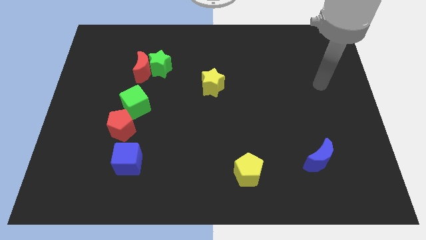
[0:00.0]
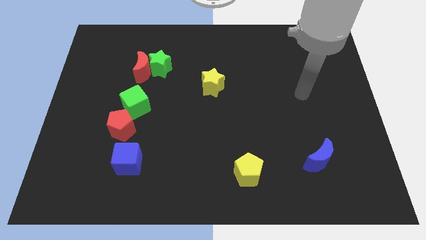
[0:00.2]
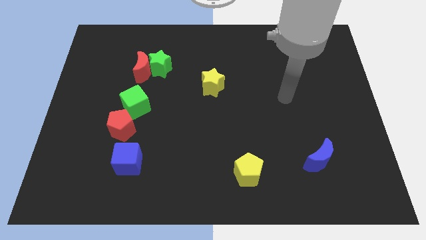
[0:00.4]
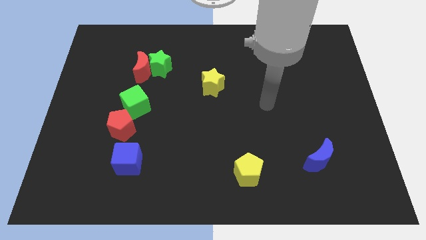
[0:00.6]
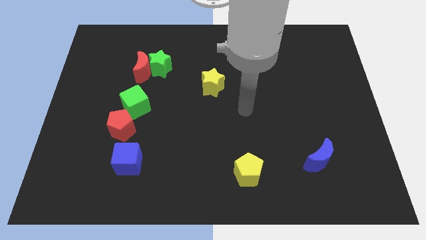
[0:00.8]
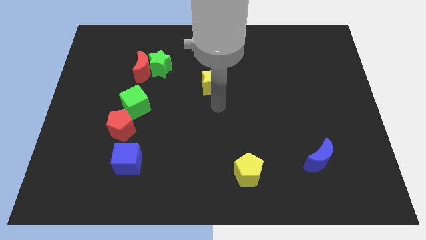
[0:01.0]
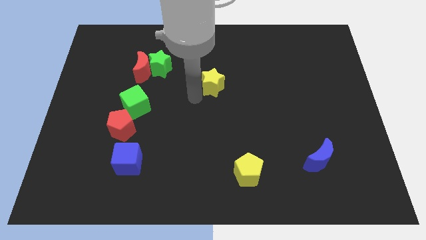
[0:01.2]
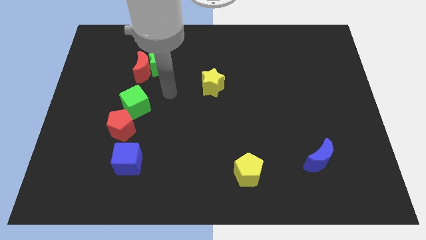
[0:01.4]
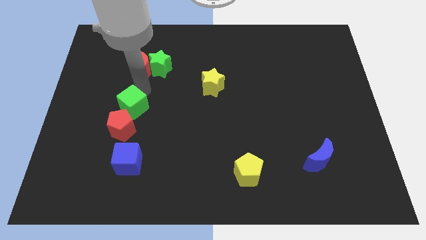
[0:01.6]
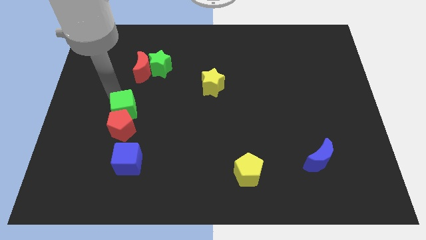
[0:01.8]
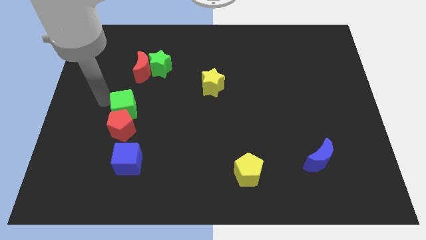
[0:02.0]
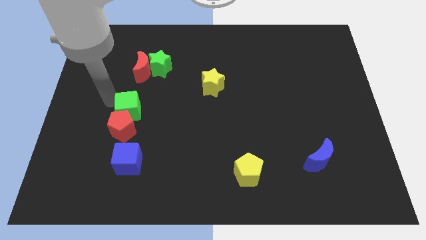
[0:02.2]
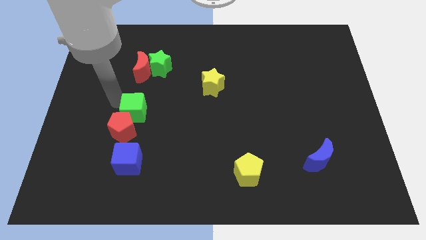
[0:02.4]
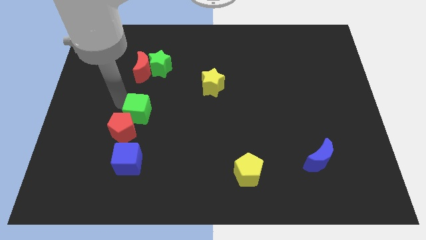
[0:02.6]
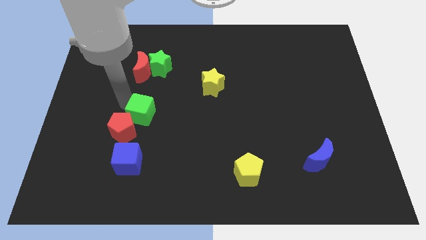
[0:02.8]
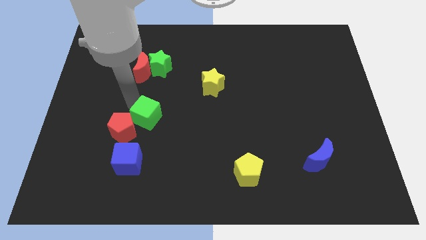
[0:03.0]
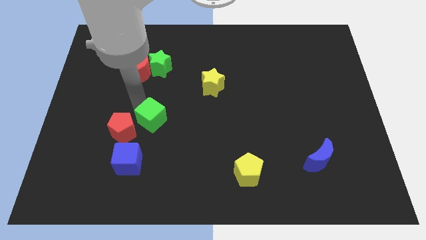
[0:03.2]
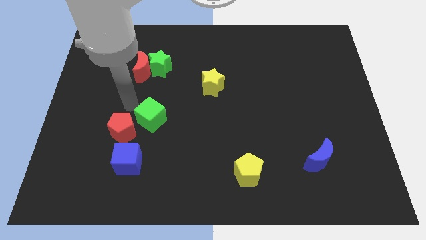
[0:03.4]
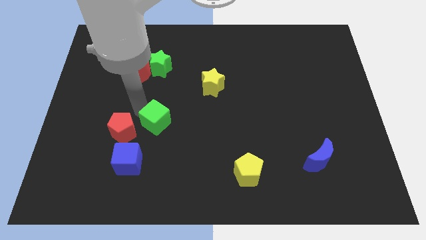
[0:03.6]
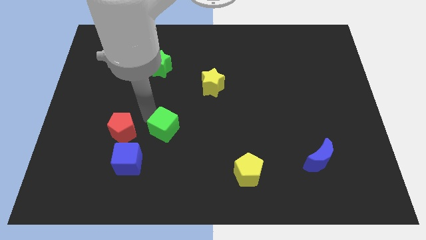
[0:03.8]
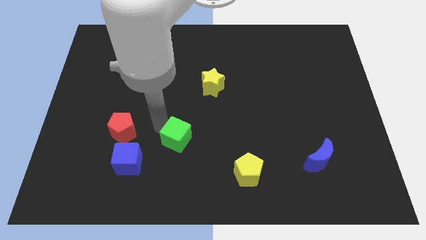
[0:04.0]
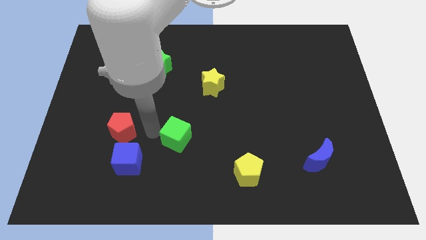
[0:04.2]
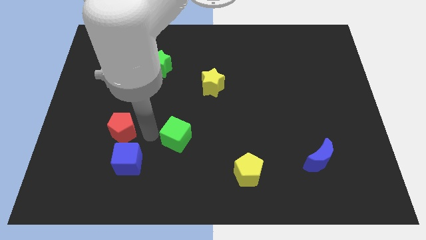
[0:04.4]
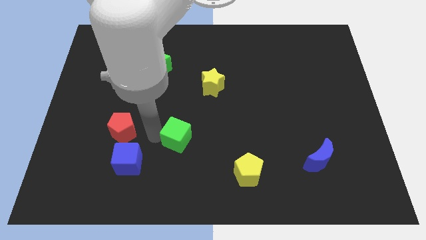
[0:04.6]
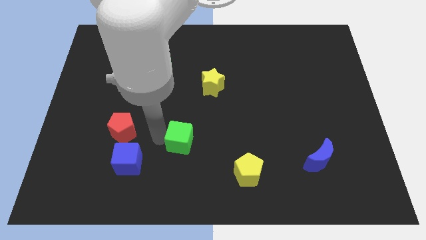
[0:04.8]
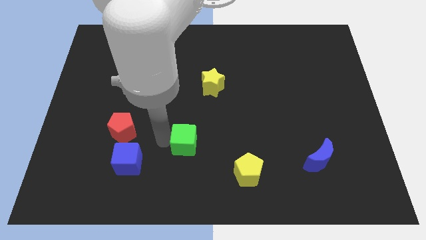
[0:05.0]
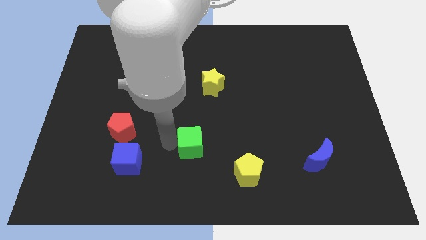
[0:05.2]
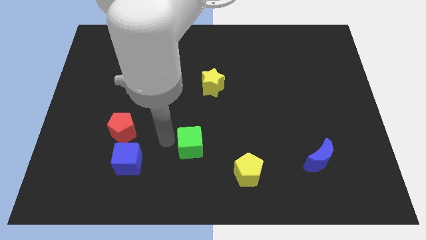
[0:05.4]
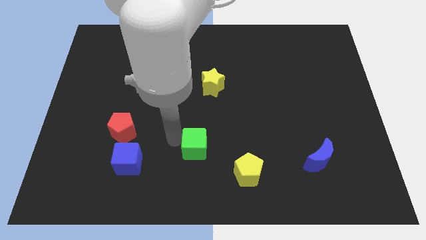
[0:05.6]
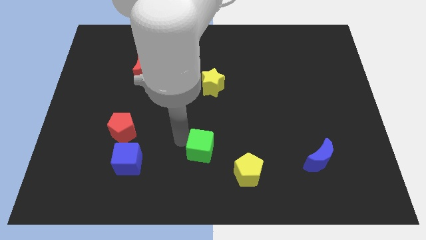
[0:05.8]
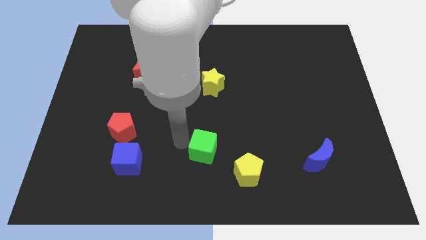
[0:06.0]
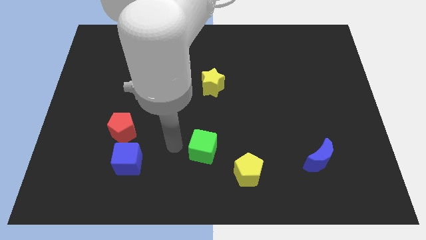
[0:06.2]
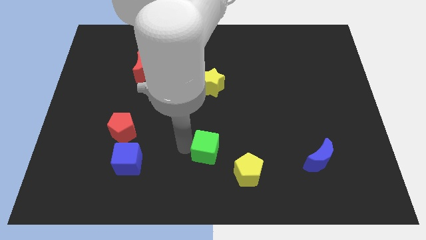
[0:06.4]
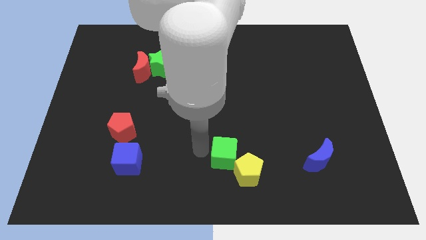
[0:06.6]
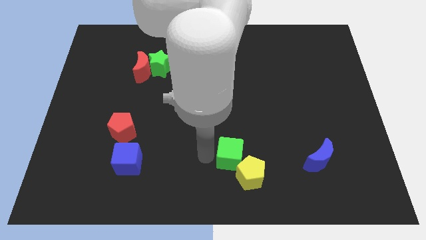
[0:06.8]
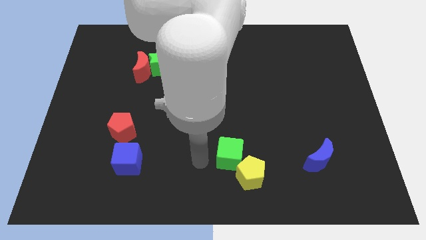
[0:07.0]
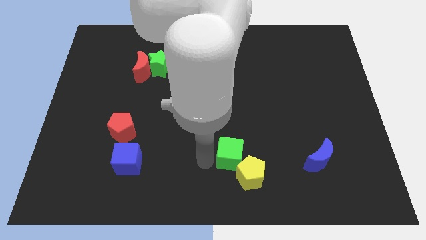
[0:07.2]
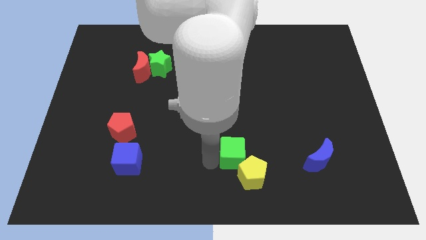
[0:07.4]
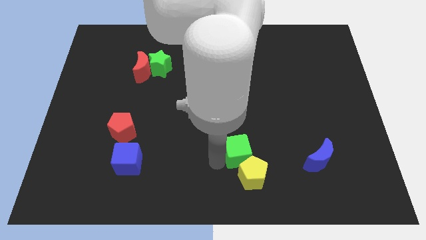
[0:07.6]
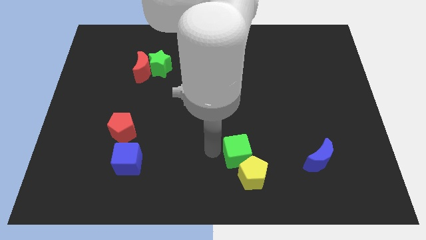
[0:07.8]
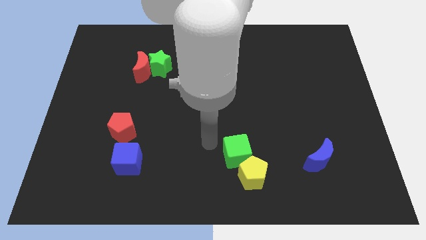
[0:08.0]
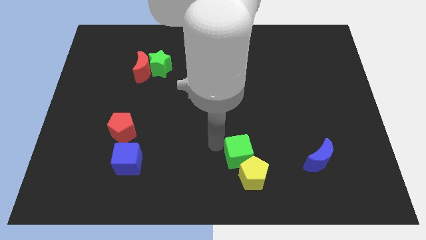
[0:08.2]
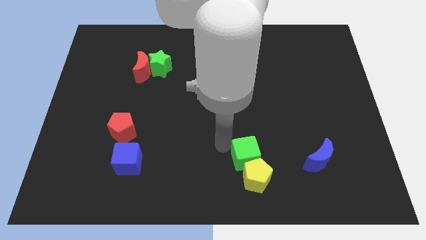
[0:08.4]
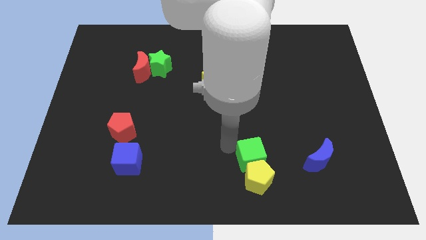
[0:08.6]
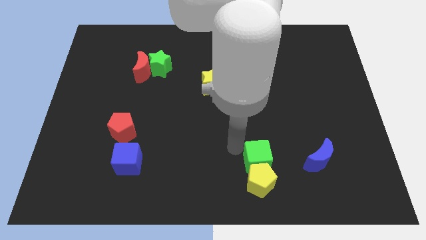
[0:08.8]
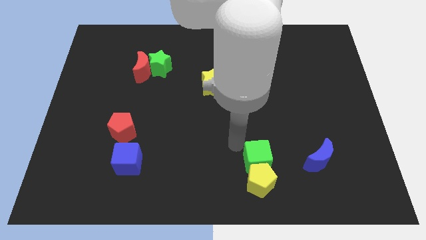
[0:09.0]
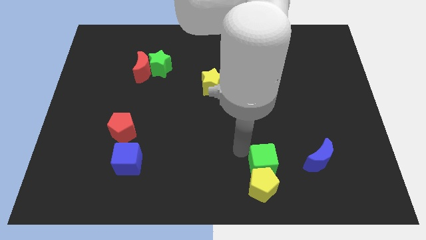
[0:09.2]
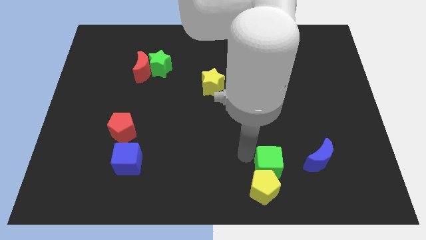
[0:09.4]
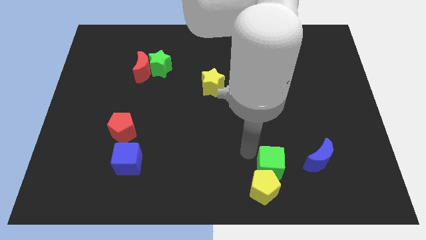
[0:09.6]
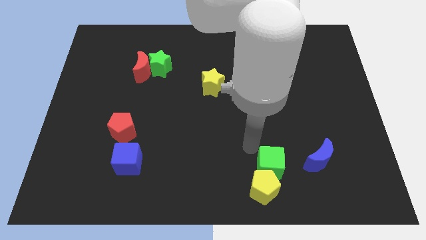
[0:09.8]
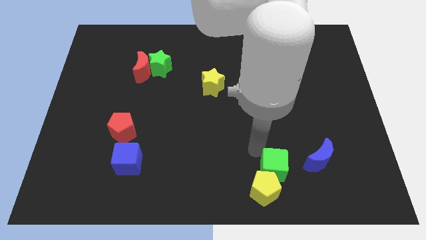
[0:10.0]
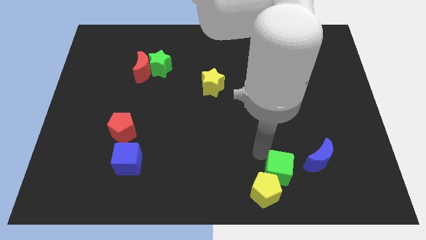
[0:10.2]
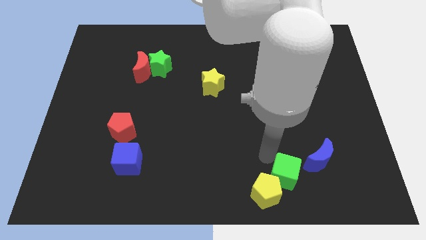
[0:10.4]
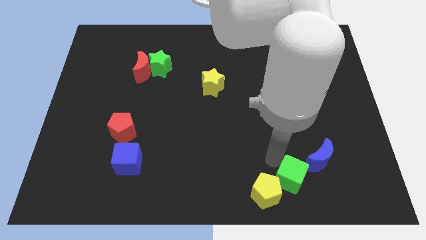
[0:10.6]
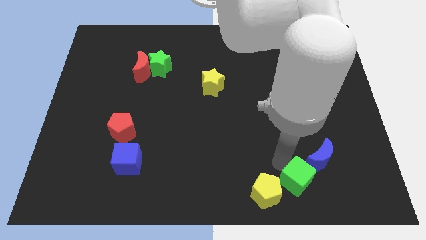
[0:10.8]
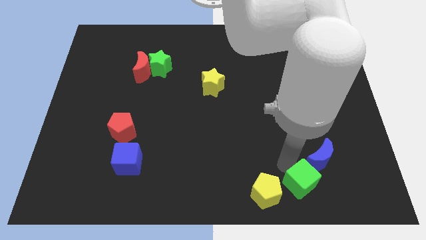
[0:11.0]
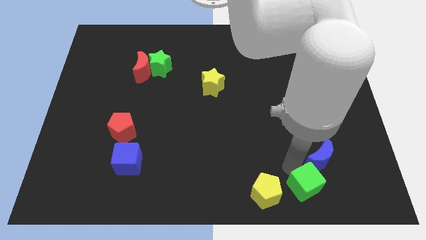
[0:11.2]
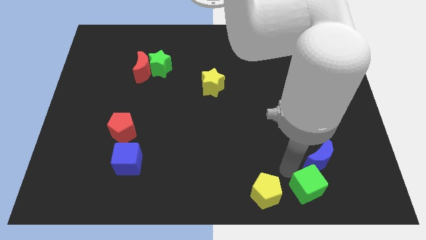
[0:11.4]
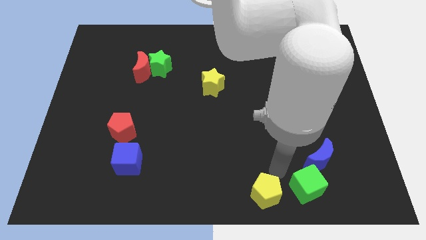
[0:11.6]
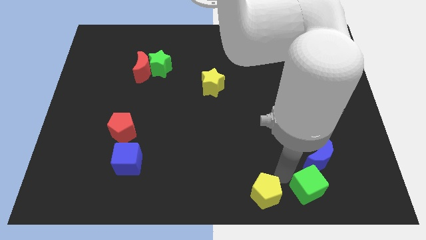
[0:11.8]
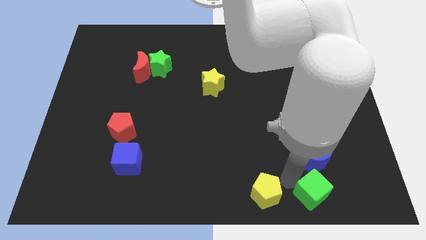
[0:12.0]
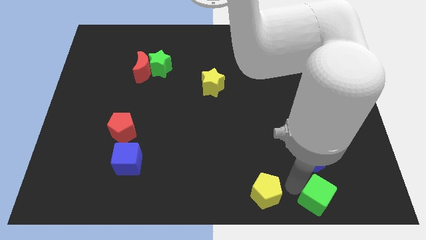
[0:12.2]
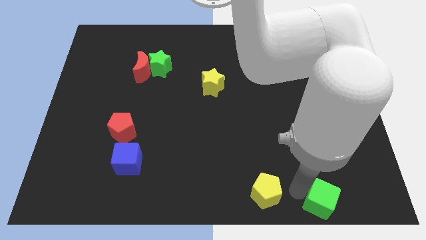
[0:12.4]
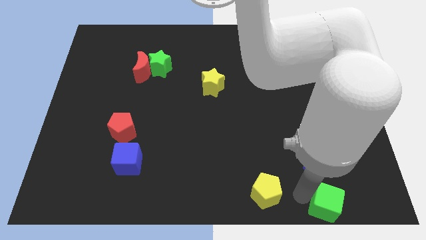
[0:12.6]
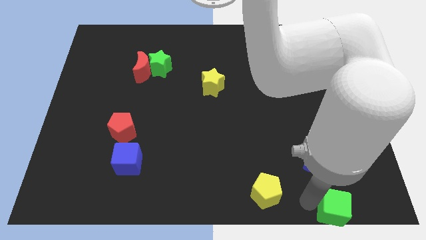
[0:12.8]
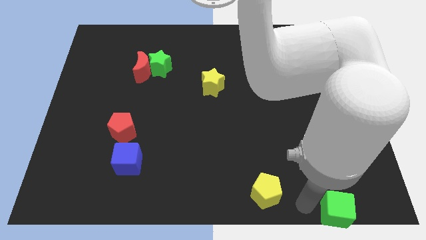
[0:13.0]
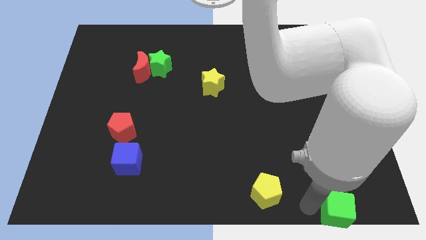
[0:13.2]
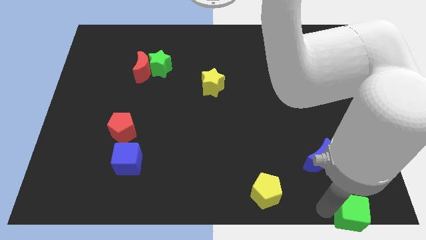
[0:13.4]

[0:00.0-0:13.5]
slide the green cube to the bottom right

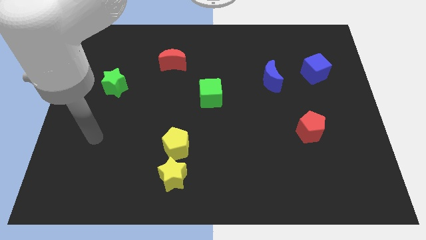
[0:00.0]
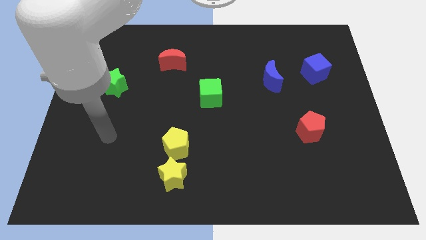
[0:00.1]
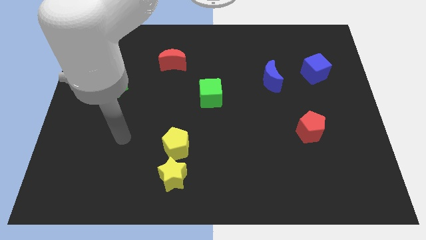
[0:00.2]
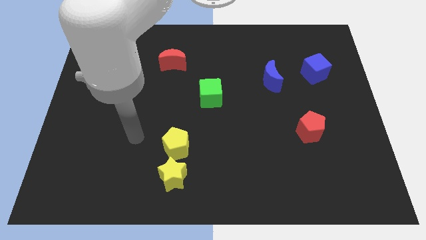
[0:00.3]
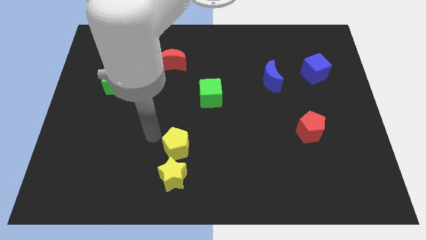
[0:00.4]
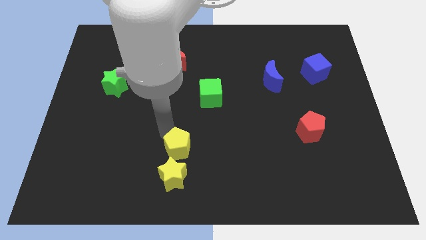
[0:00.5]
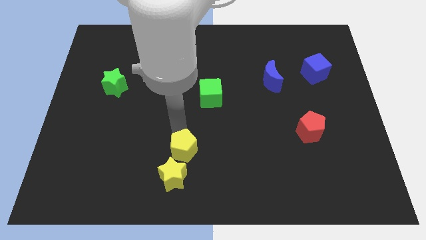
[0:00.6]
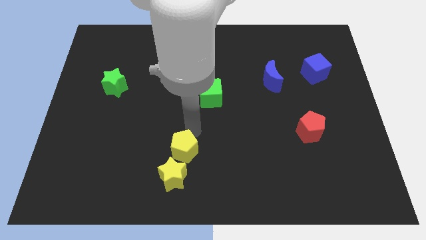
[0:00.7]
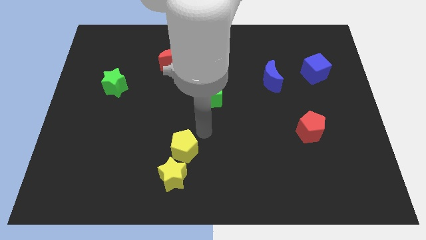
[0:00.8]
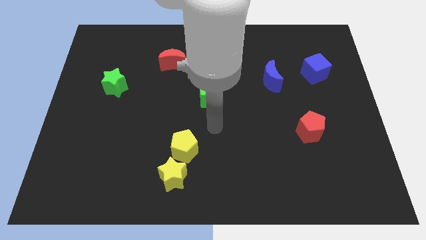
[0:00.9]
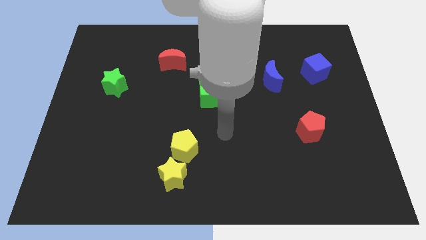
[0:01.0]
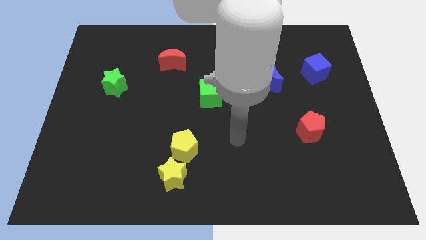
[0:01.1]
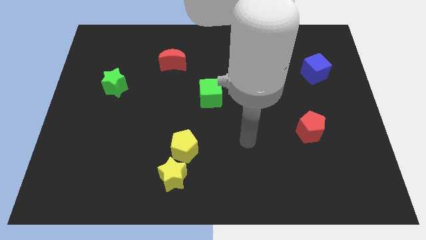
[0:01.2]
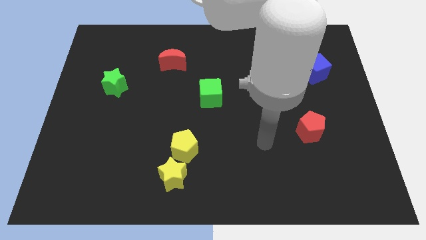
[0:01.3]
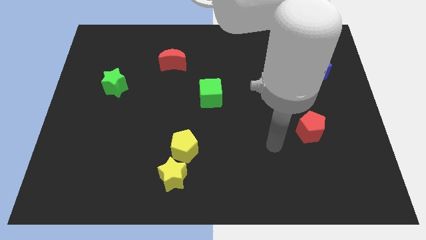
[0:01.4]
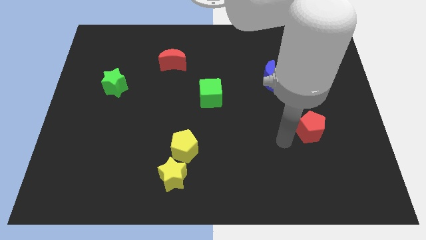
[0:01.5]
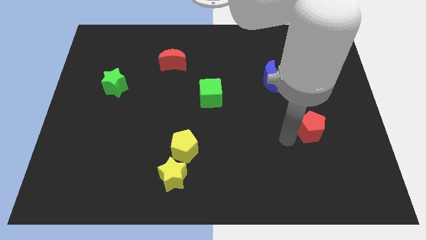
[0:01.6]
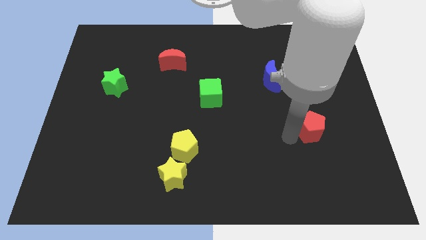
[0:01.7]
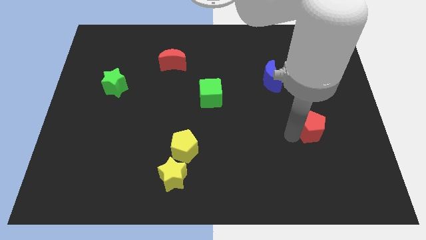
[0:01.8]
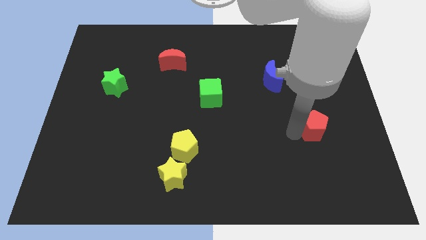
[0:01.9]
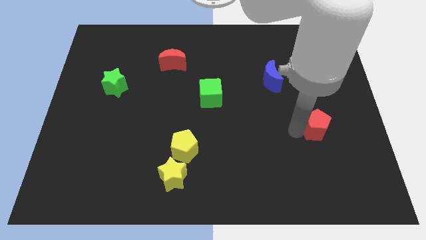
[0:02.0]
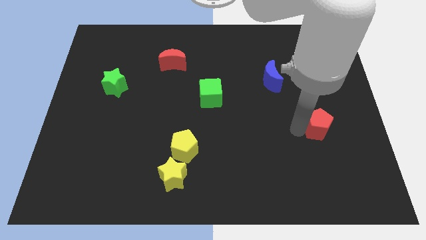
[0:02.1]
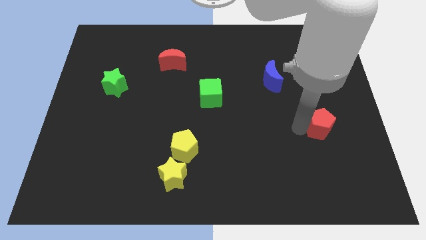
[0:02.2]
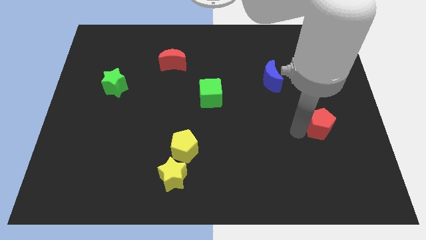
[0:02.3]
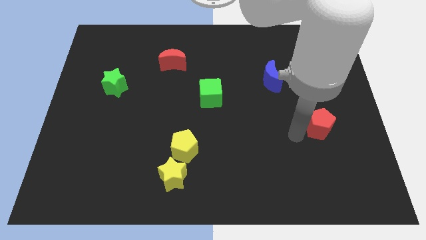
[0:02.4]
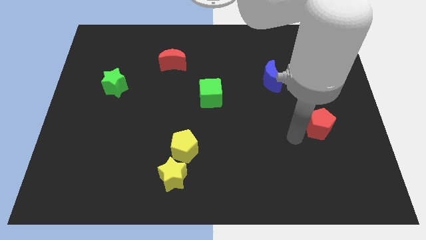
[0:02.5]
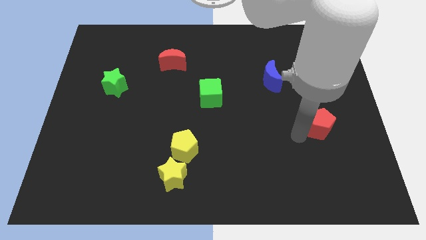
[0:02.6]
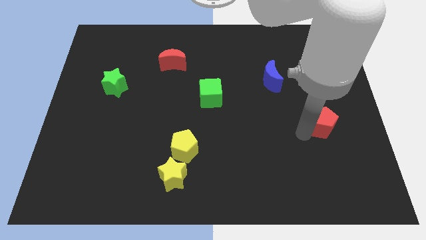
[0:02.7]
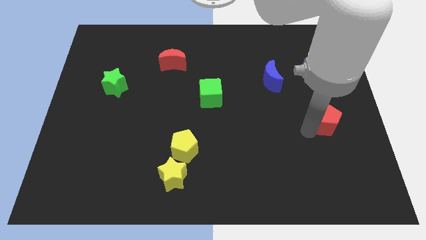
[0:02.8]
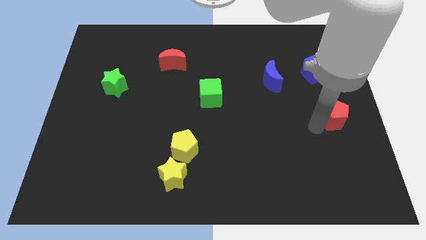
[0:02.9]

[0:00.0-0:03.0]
put the red pentagon to the center right
